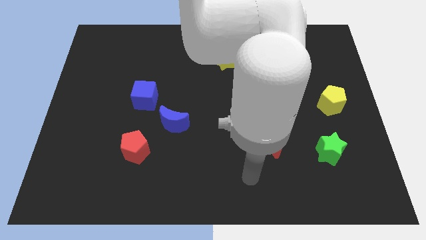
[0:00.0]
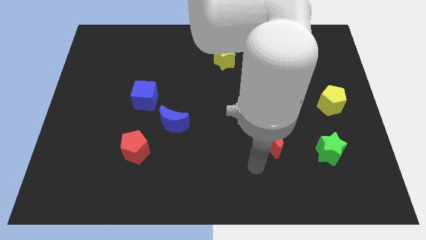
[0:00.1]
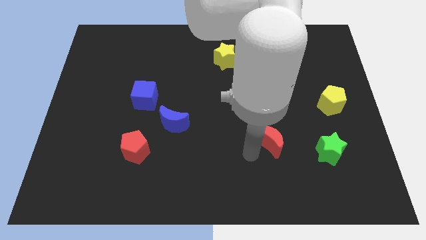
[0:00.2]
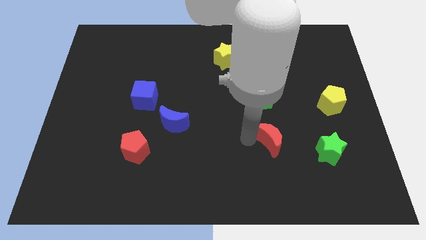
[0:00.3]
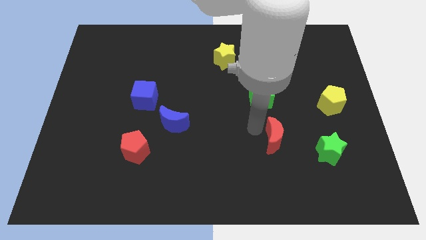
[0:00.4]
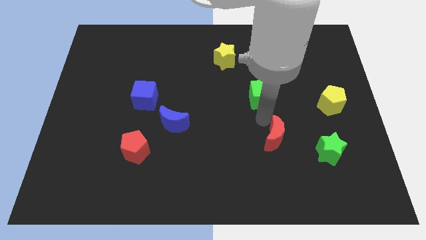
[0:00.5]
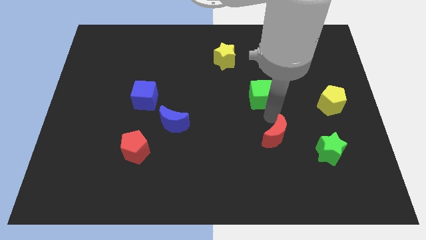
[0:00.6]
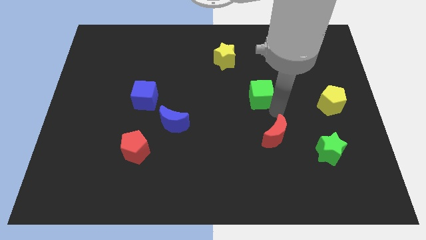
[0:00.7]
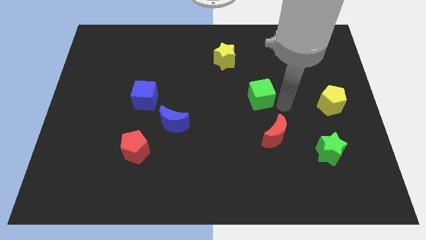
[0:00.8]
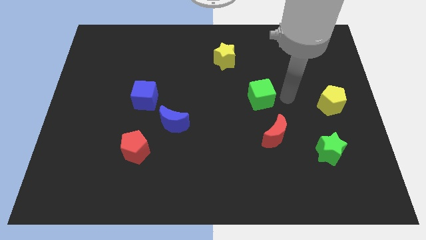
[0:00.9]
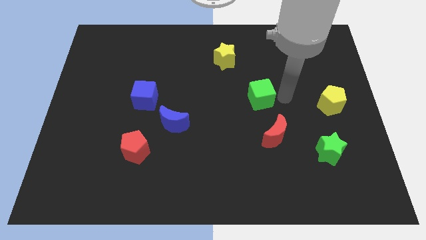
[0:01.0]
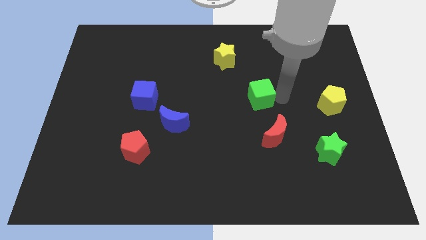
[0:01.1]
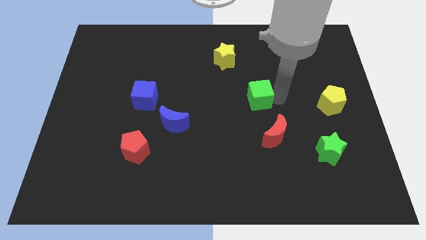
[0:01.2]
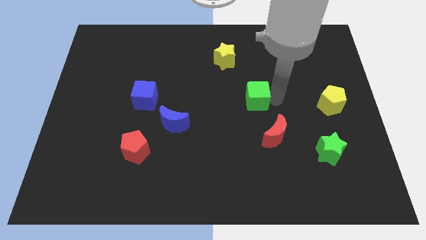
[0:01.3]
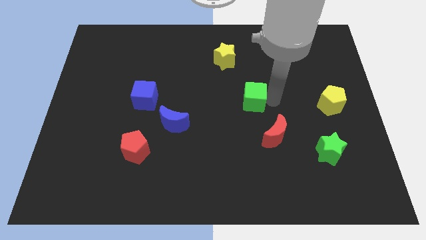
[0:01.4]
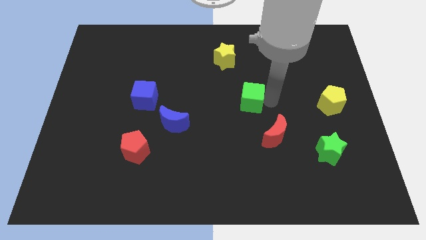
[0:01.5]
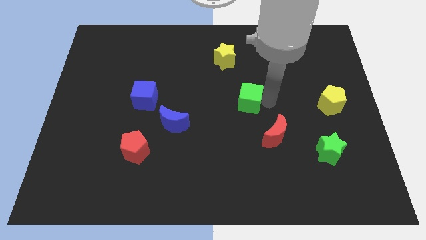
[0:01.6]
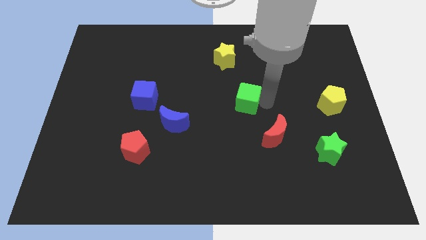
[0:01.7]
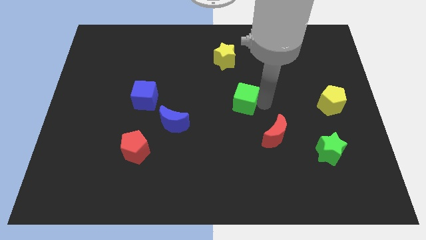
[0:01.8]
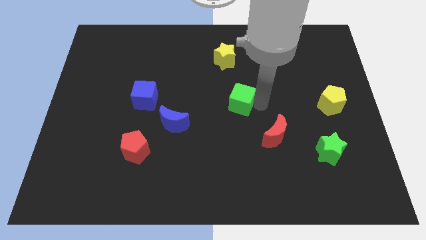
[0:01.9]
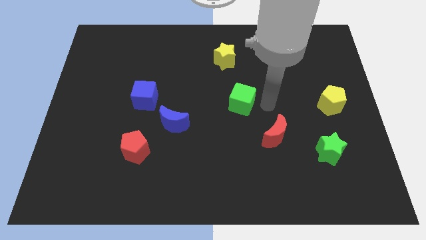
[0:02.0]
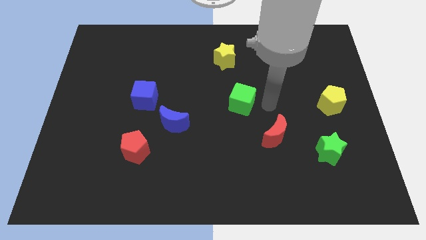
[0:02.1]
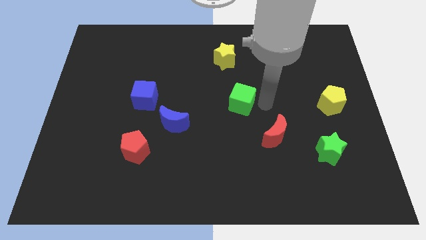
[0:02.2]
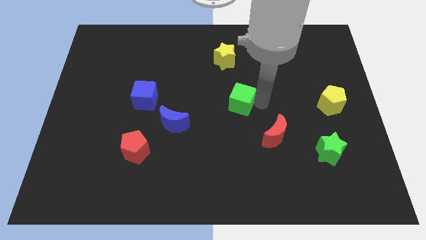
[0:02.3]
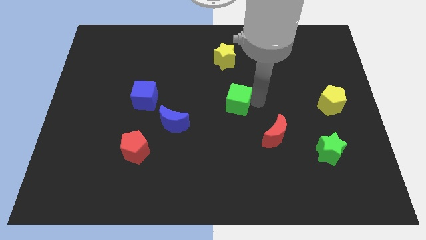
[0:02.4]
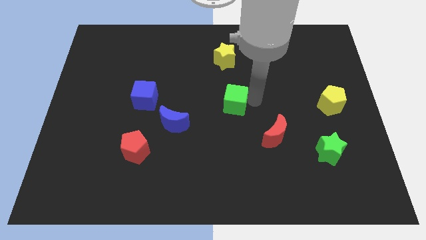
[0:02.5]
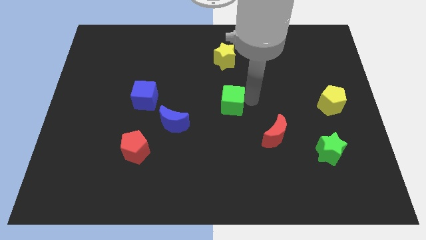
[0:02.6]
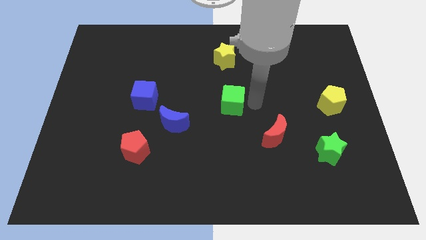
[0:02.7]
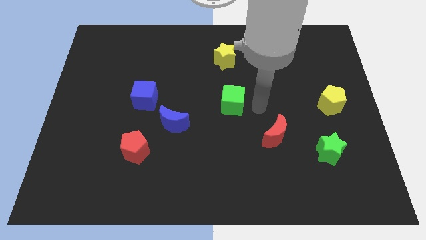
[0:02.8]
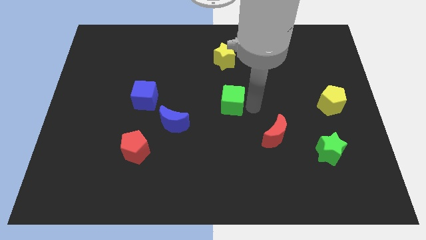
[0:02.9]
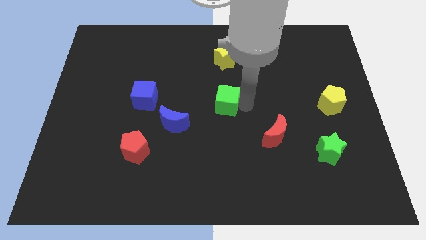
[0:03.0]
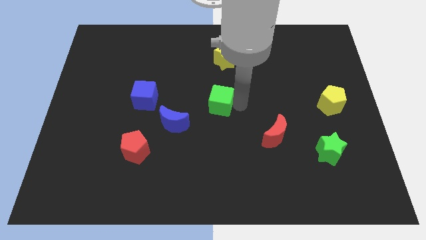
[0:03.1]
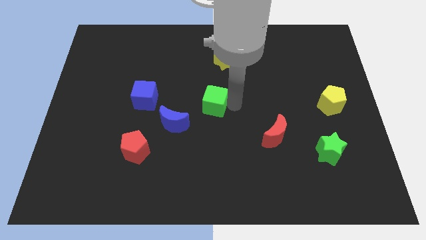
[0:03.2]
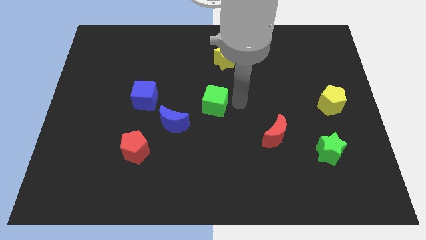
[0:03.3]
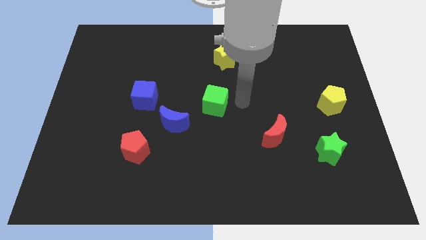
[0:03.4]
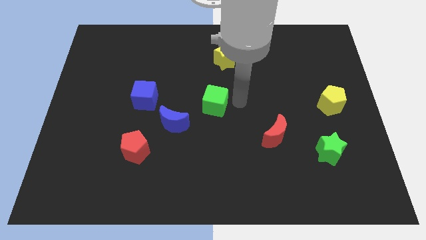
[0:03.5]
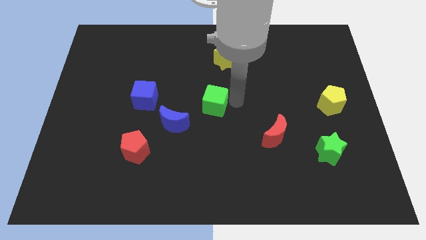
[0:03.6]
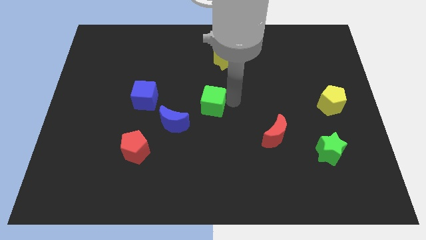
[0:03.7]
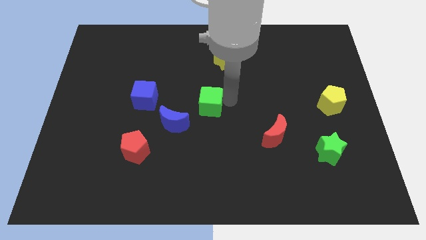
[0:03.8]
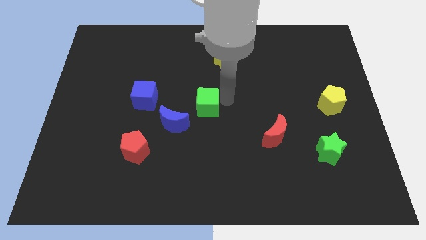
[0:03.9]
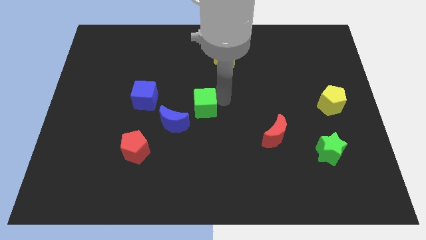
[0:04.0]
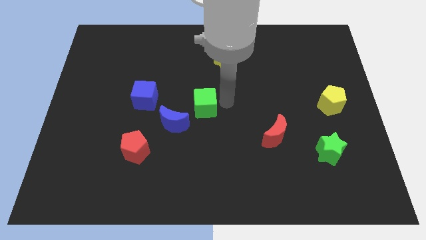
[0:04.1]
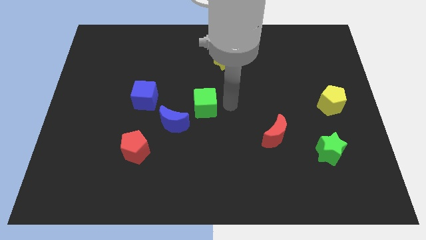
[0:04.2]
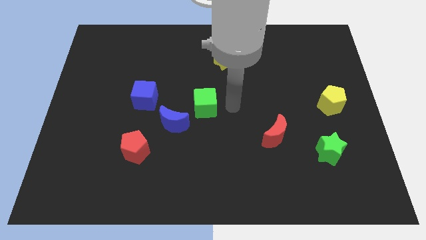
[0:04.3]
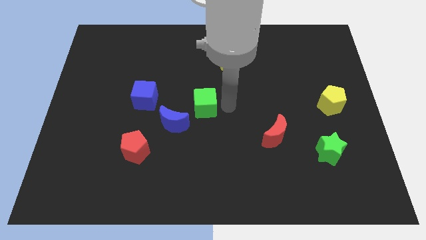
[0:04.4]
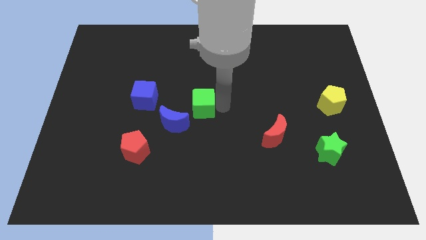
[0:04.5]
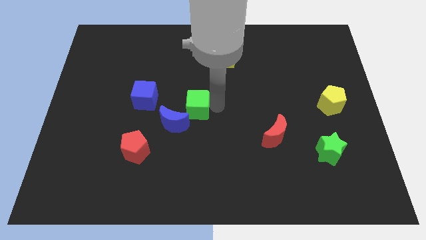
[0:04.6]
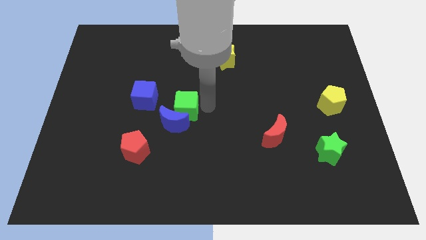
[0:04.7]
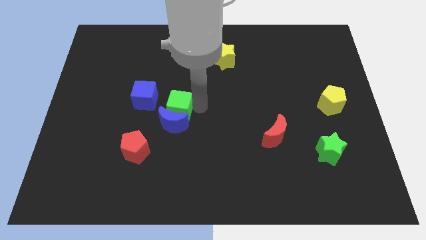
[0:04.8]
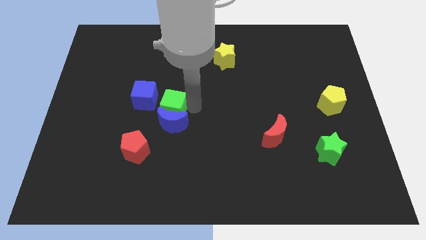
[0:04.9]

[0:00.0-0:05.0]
move the green cube to the left

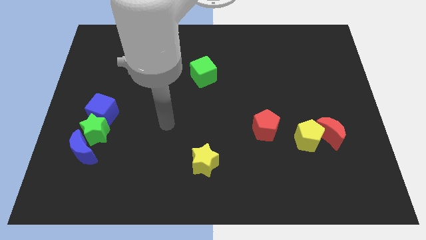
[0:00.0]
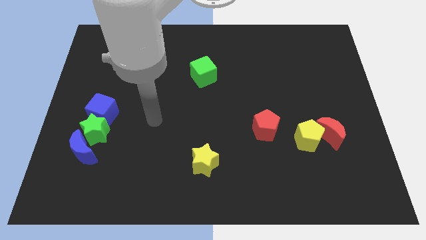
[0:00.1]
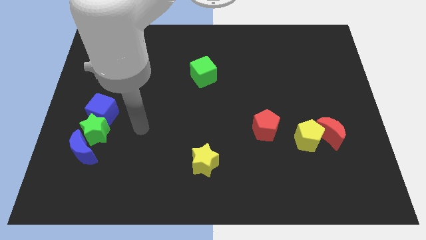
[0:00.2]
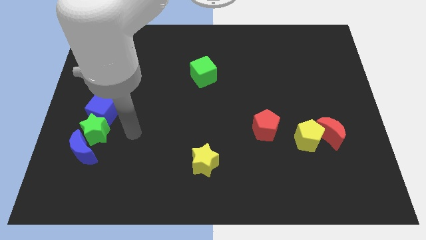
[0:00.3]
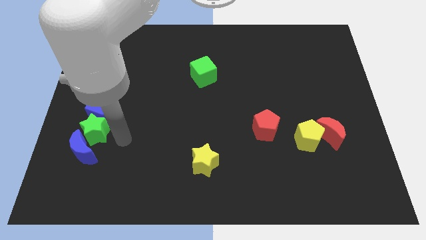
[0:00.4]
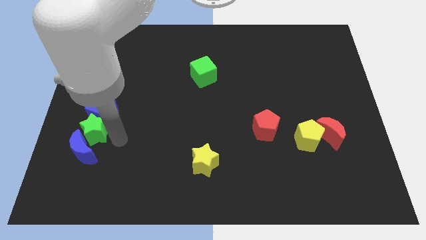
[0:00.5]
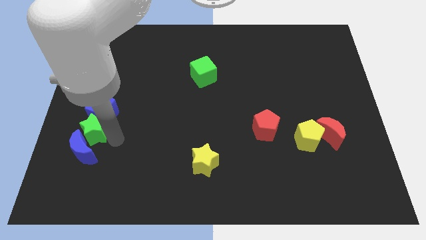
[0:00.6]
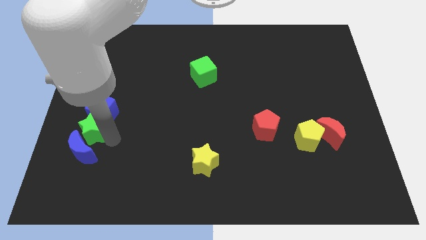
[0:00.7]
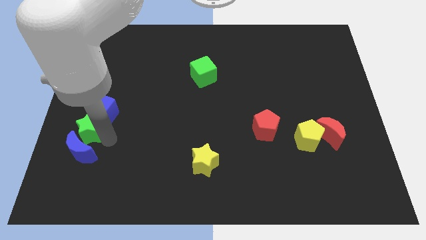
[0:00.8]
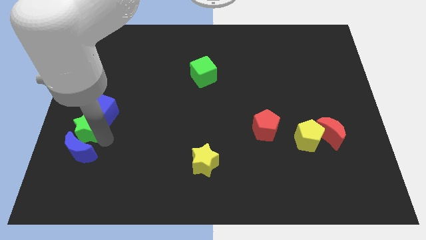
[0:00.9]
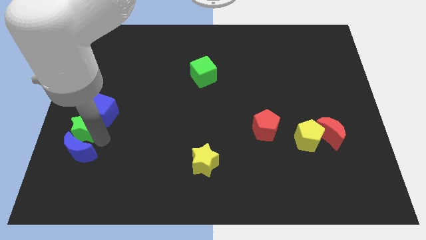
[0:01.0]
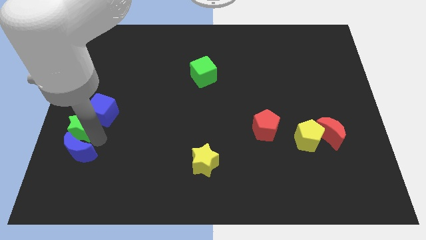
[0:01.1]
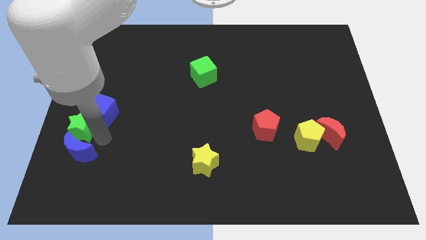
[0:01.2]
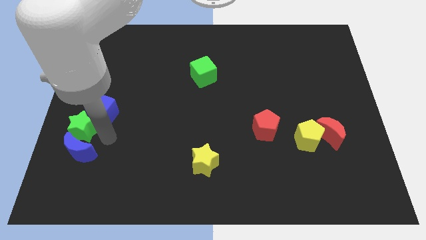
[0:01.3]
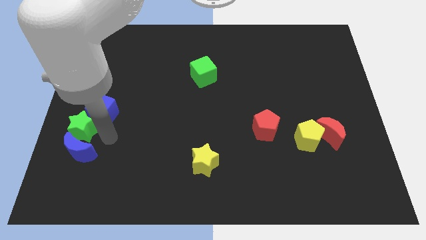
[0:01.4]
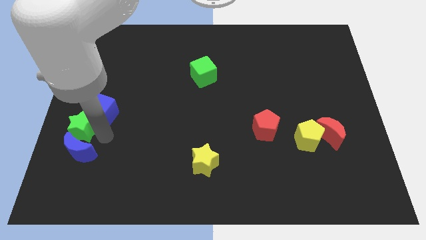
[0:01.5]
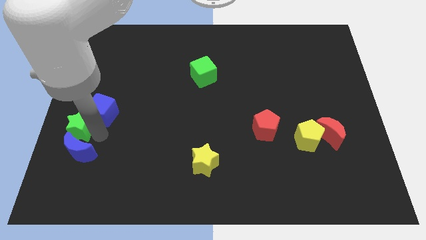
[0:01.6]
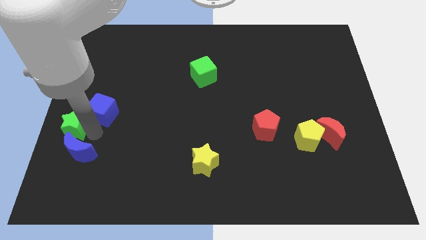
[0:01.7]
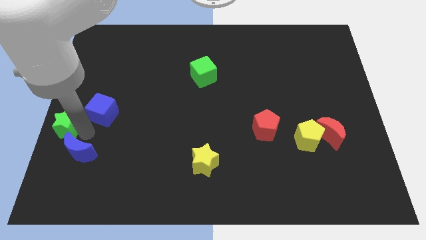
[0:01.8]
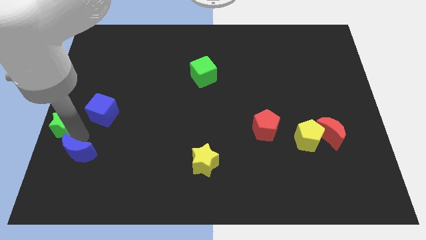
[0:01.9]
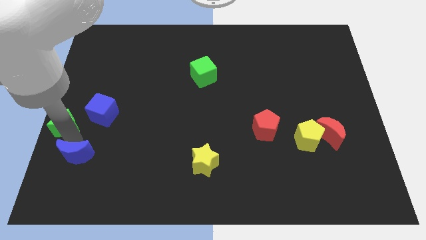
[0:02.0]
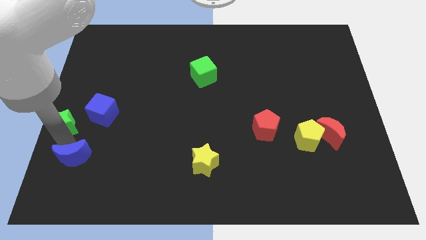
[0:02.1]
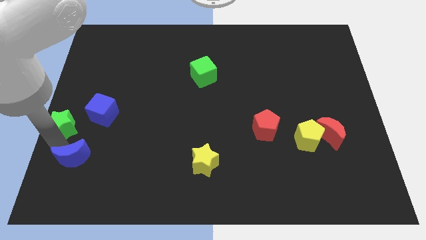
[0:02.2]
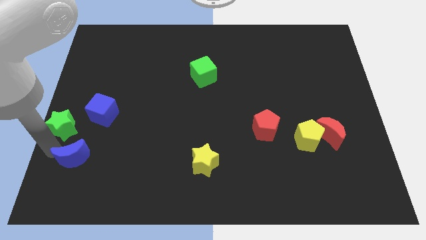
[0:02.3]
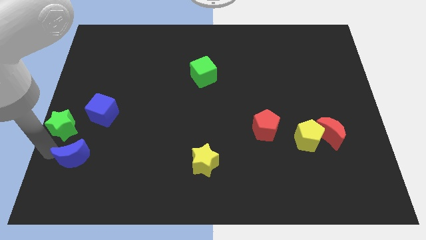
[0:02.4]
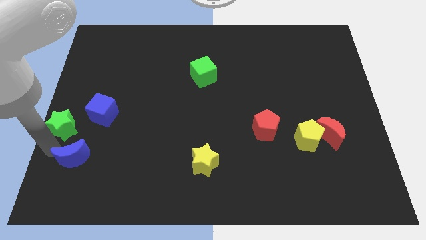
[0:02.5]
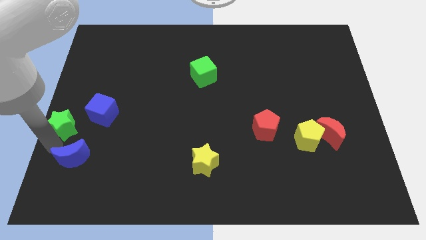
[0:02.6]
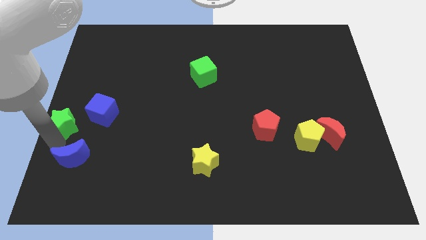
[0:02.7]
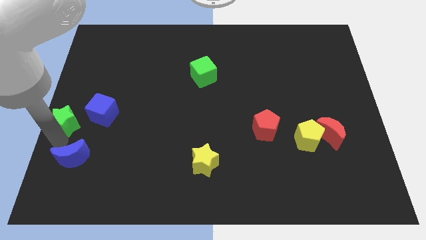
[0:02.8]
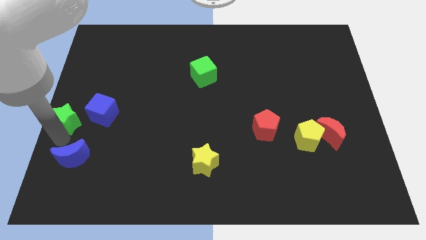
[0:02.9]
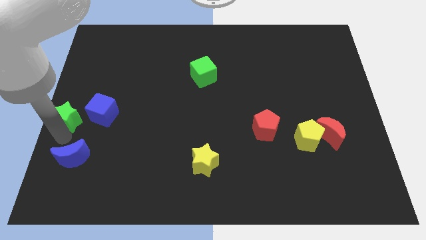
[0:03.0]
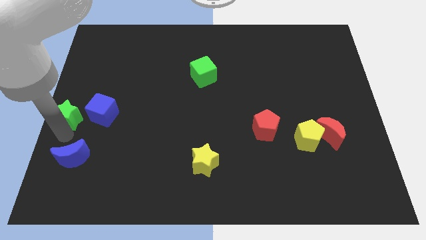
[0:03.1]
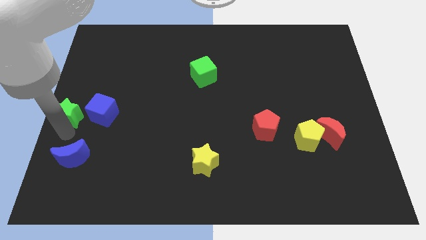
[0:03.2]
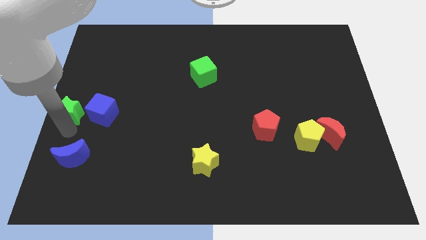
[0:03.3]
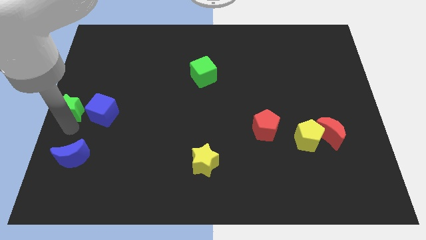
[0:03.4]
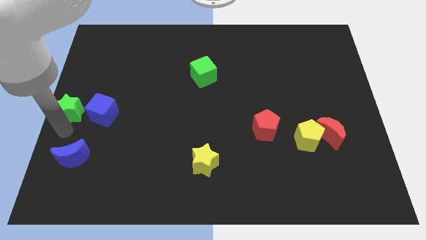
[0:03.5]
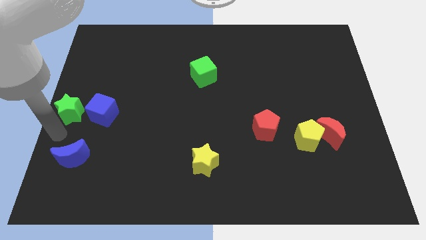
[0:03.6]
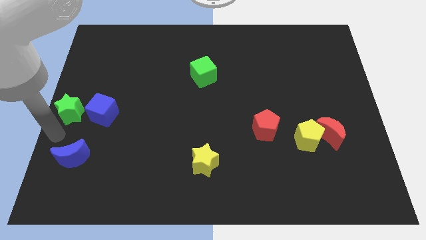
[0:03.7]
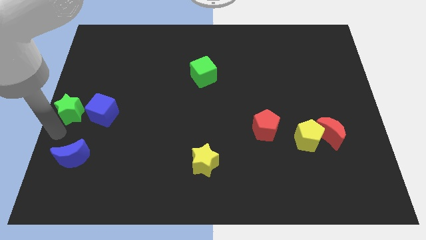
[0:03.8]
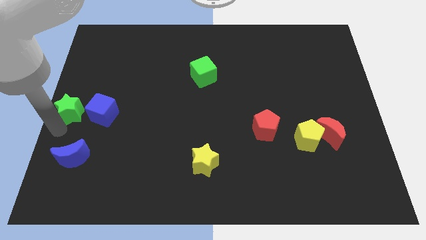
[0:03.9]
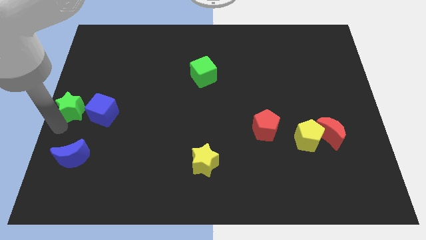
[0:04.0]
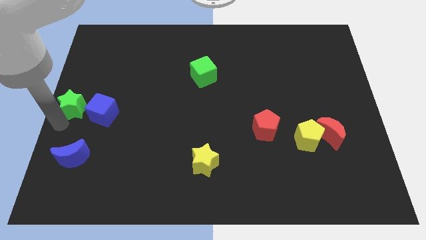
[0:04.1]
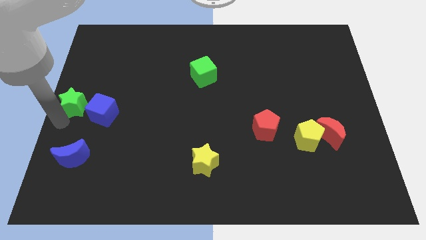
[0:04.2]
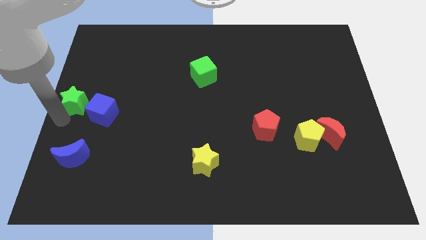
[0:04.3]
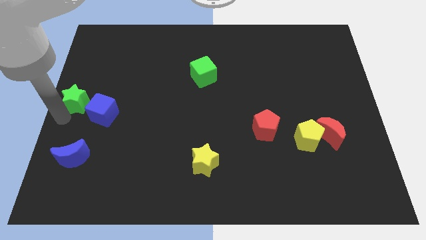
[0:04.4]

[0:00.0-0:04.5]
push the green star upwards a little
